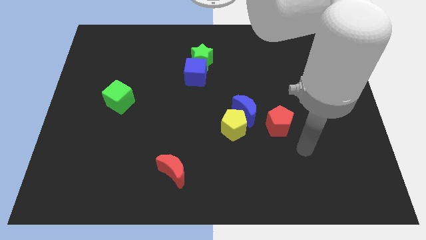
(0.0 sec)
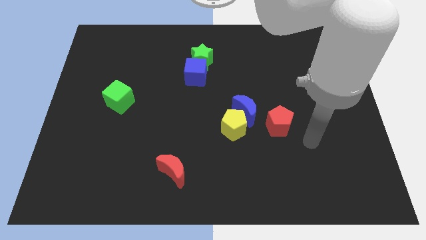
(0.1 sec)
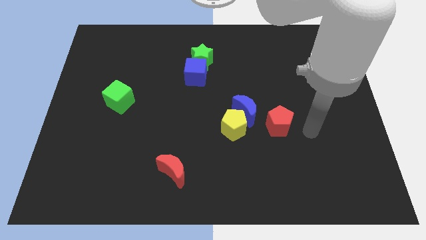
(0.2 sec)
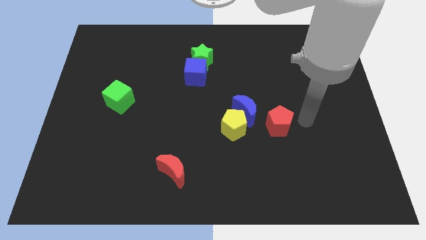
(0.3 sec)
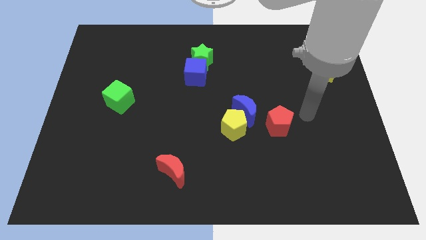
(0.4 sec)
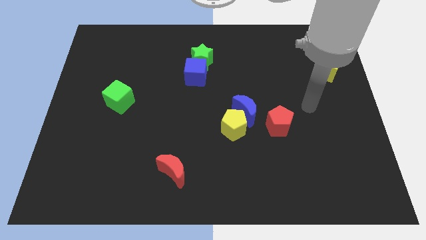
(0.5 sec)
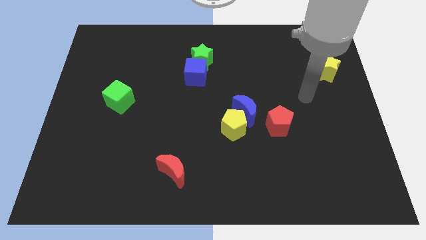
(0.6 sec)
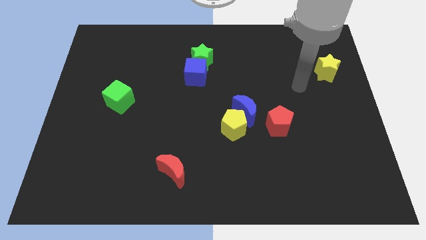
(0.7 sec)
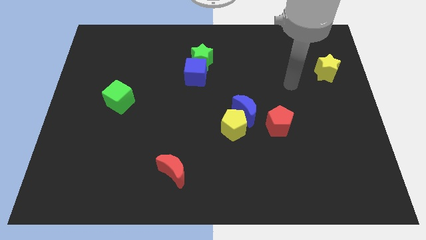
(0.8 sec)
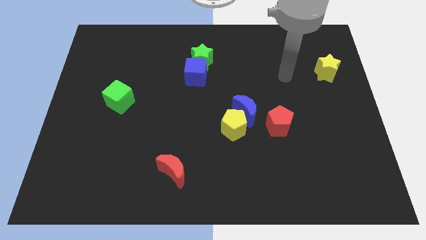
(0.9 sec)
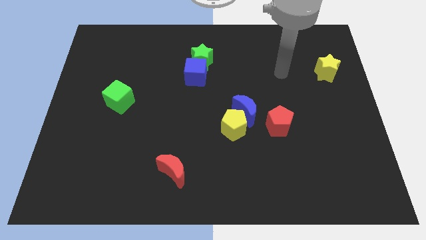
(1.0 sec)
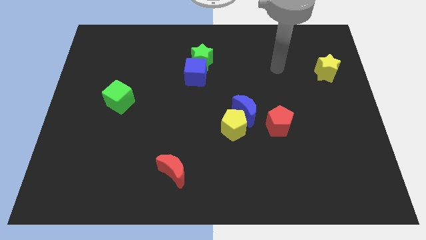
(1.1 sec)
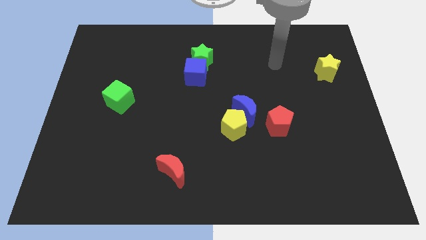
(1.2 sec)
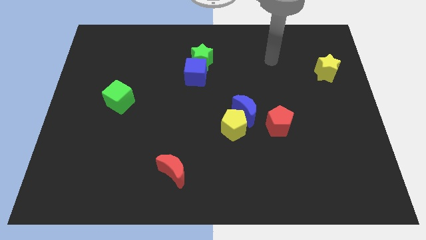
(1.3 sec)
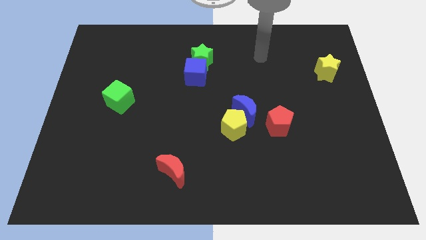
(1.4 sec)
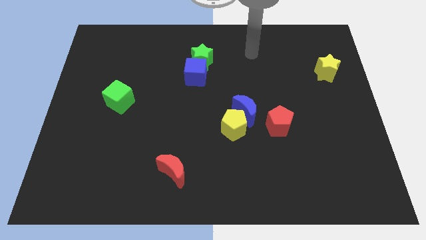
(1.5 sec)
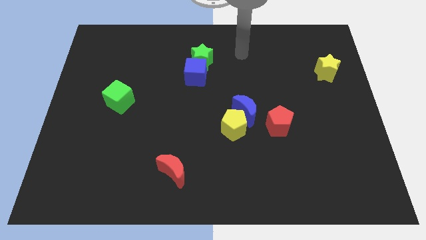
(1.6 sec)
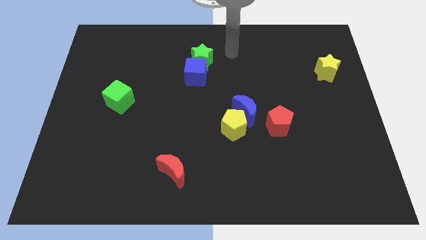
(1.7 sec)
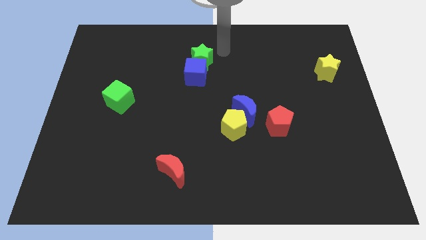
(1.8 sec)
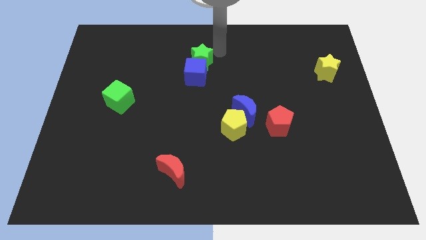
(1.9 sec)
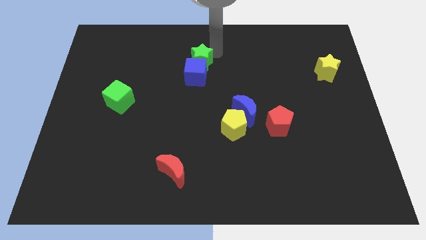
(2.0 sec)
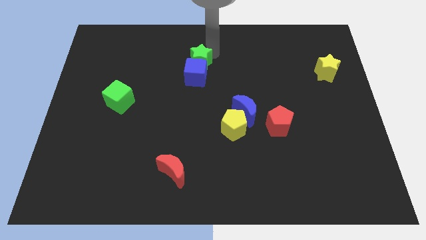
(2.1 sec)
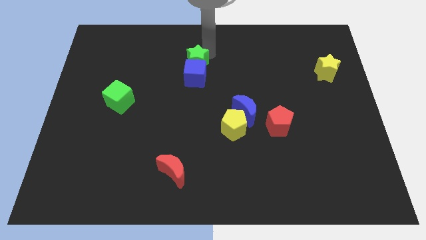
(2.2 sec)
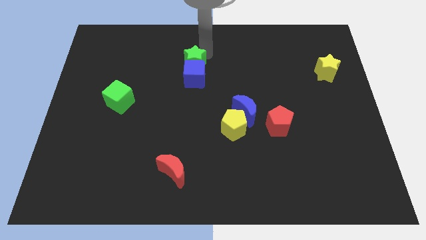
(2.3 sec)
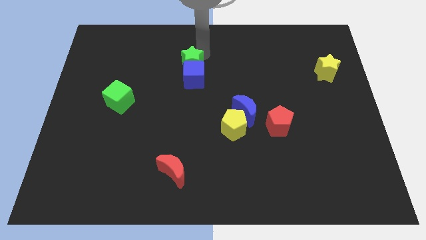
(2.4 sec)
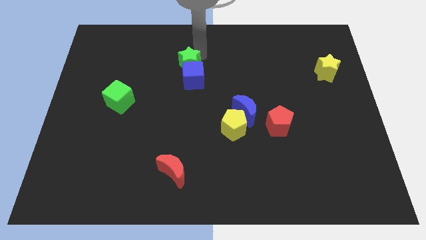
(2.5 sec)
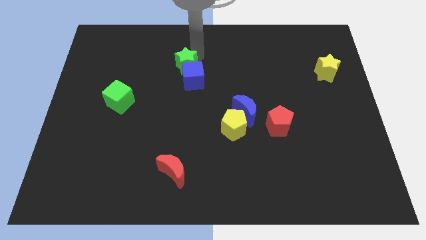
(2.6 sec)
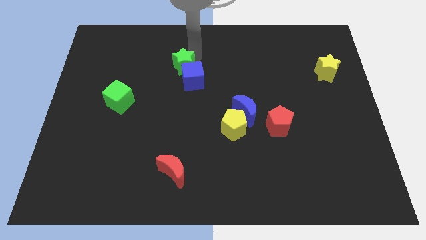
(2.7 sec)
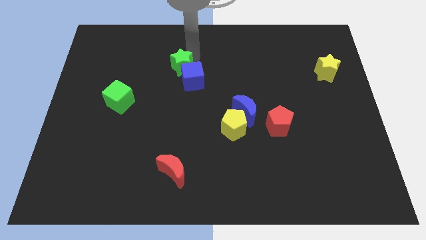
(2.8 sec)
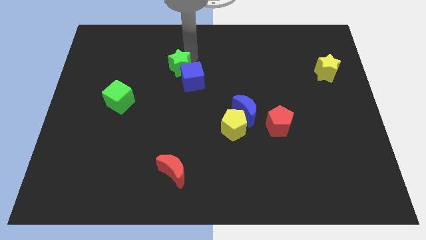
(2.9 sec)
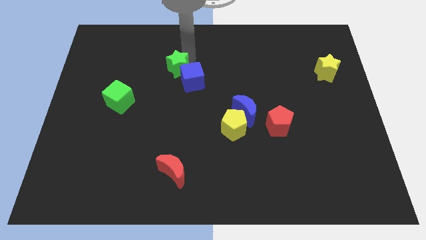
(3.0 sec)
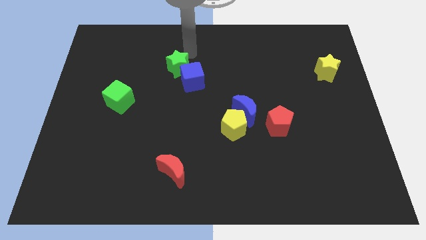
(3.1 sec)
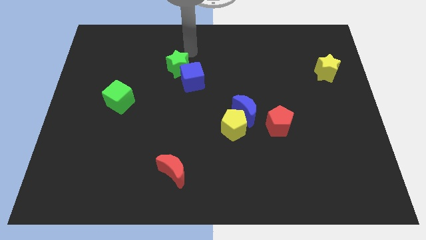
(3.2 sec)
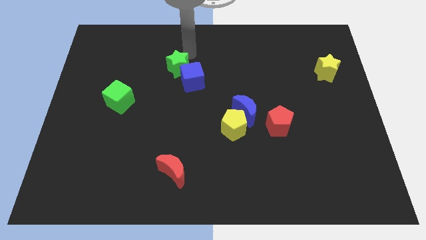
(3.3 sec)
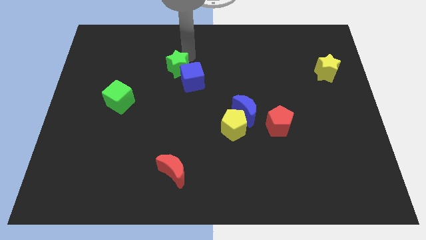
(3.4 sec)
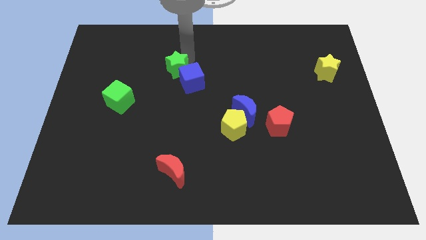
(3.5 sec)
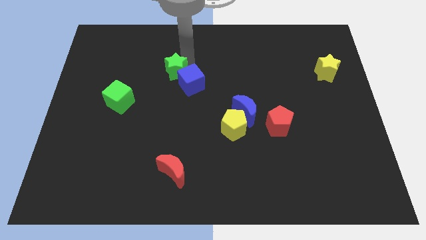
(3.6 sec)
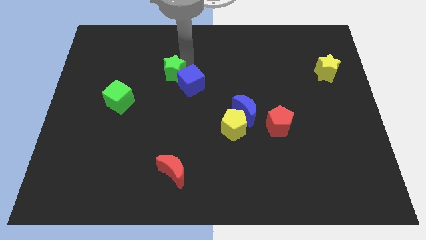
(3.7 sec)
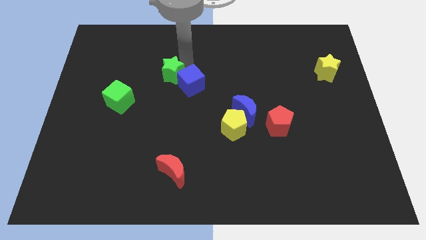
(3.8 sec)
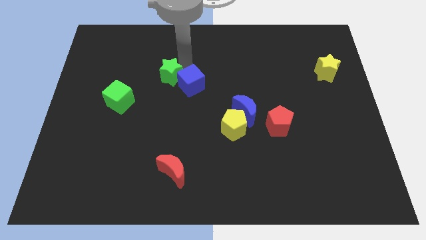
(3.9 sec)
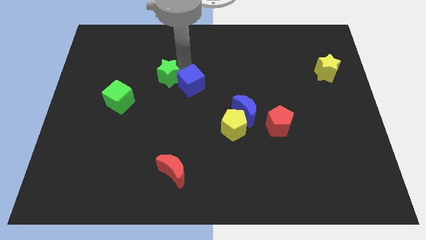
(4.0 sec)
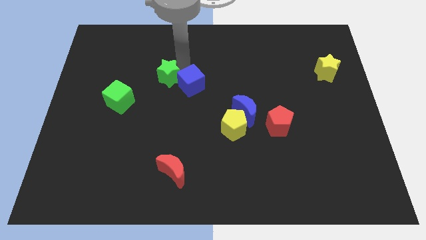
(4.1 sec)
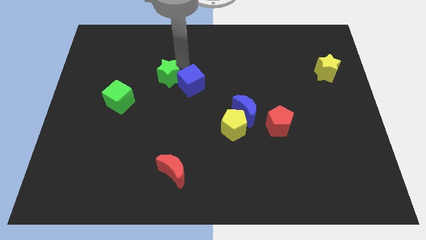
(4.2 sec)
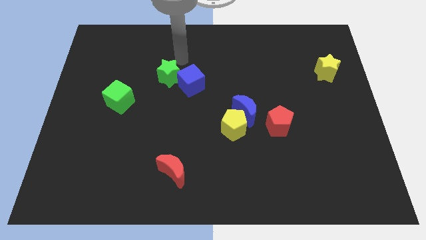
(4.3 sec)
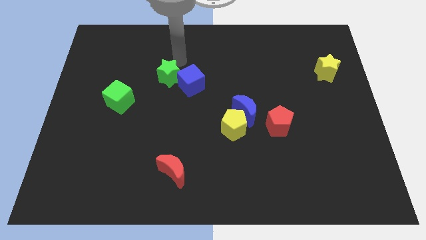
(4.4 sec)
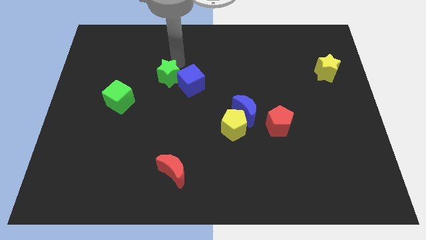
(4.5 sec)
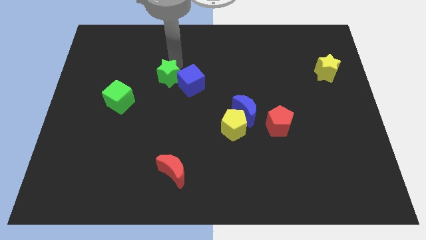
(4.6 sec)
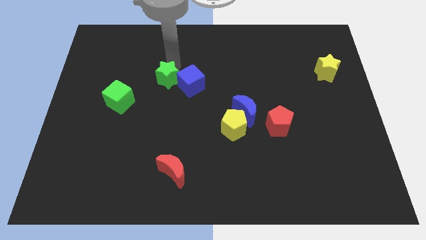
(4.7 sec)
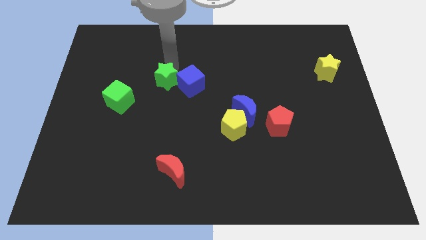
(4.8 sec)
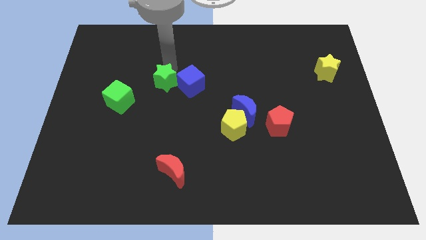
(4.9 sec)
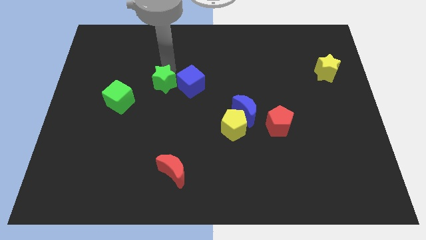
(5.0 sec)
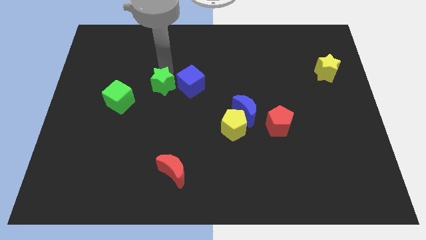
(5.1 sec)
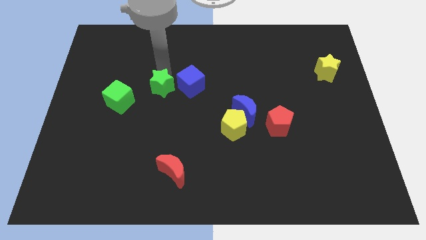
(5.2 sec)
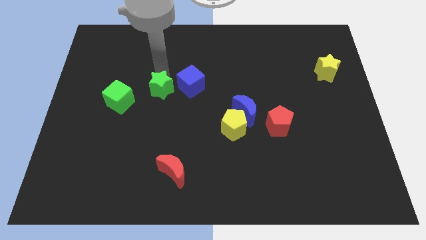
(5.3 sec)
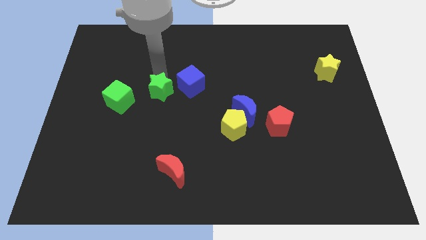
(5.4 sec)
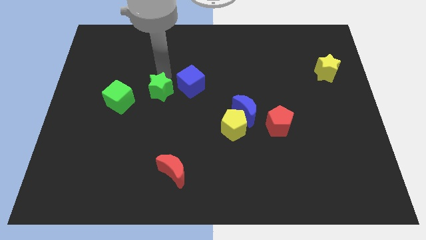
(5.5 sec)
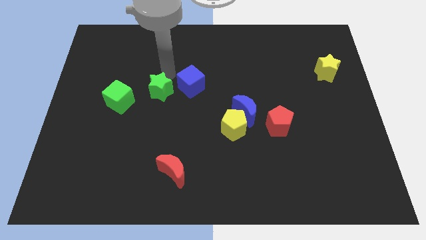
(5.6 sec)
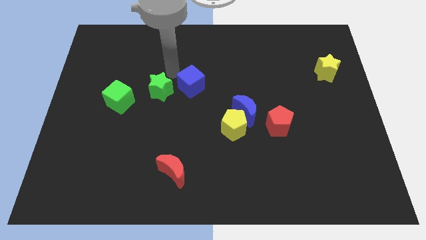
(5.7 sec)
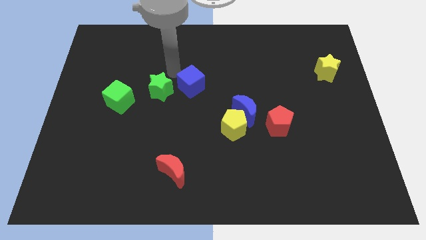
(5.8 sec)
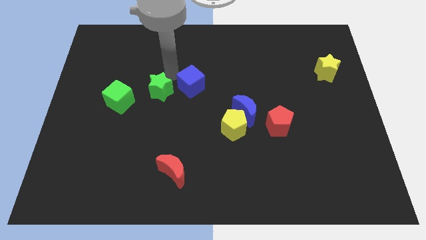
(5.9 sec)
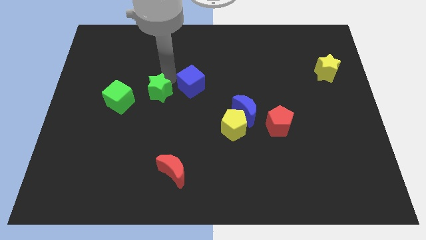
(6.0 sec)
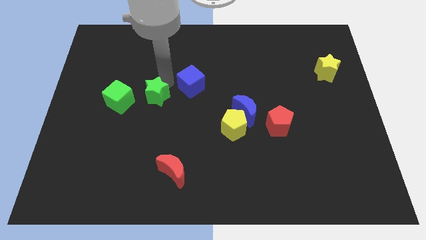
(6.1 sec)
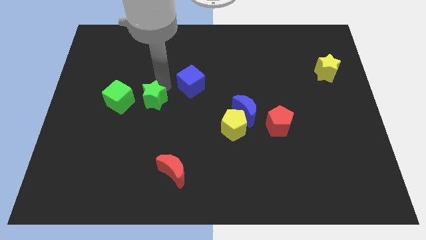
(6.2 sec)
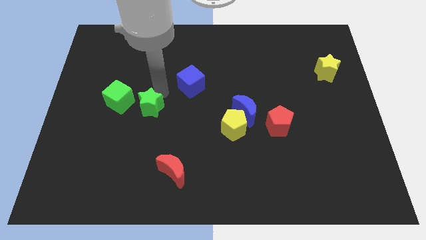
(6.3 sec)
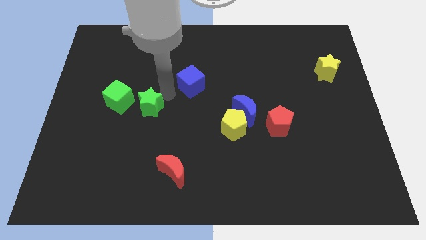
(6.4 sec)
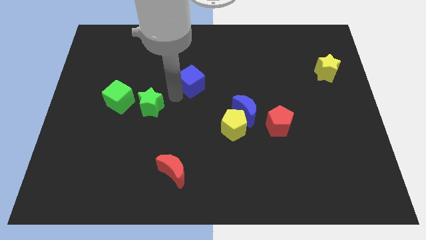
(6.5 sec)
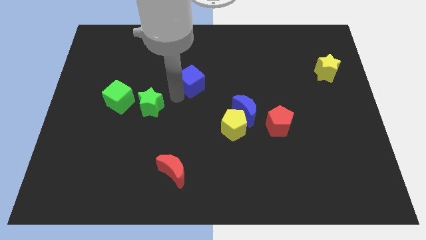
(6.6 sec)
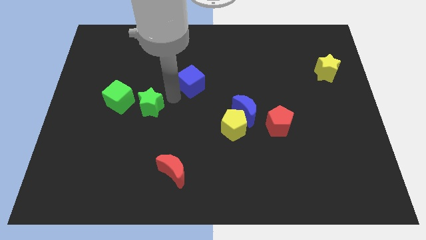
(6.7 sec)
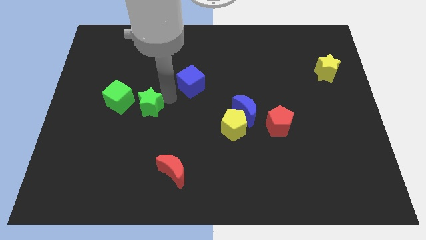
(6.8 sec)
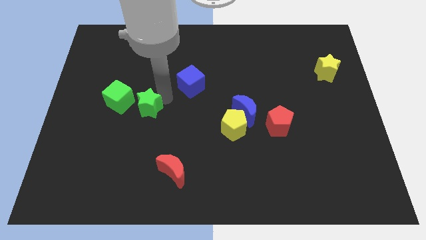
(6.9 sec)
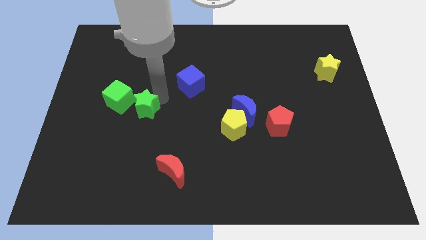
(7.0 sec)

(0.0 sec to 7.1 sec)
move the green star diagonally down and to the left

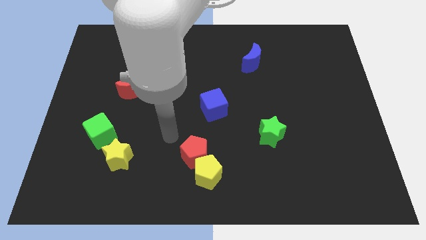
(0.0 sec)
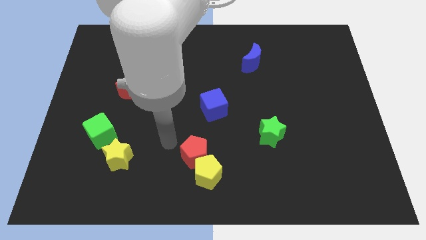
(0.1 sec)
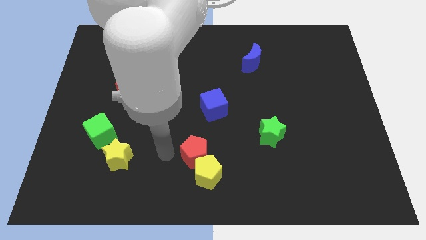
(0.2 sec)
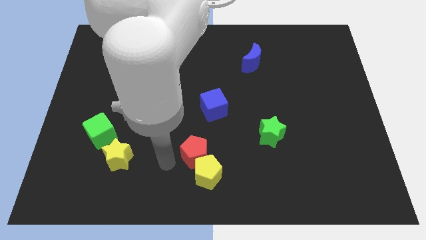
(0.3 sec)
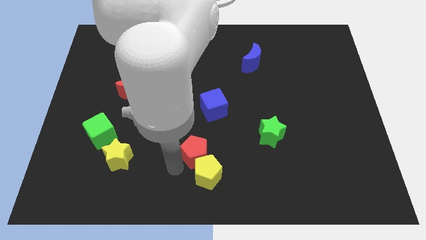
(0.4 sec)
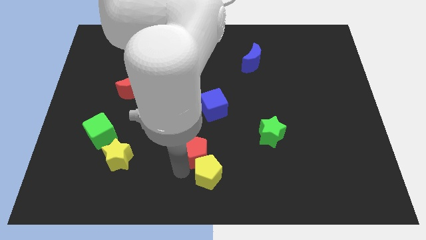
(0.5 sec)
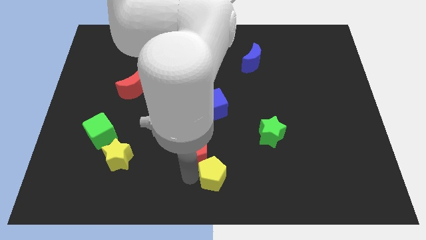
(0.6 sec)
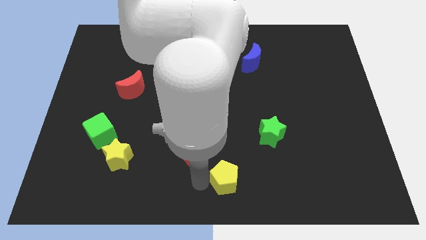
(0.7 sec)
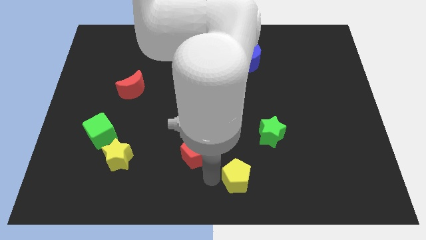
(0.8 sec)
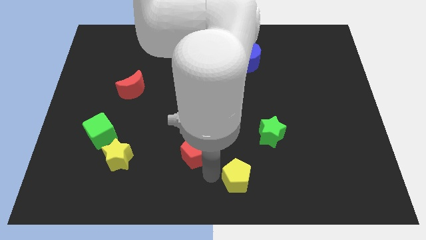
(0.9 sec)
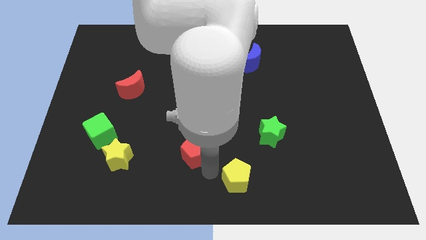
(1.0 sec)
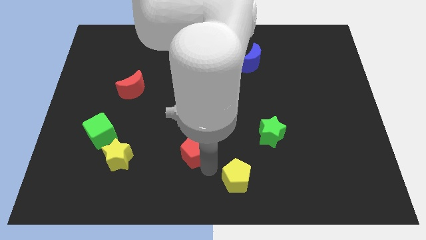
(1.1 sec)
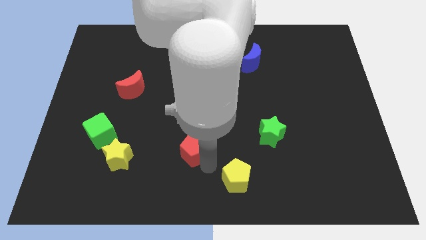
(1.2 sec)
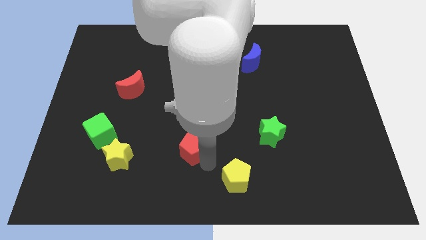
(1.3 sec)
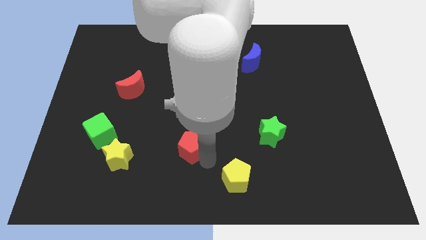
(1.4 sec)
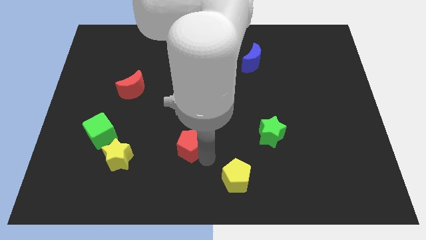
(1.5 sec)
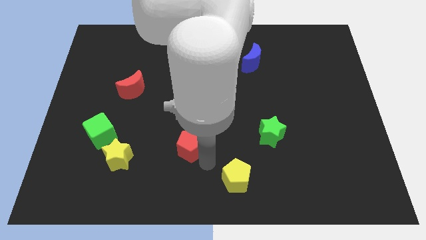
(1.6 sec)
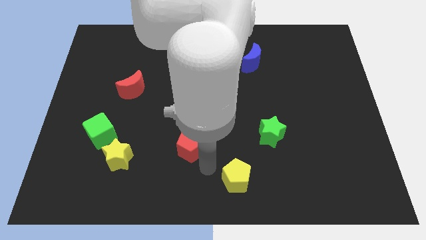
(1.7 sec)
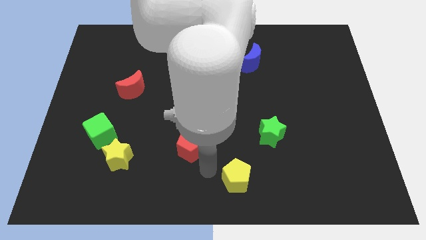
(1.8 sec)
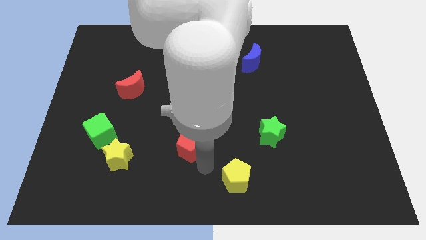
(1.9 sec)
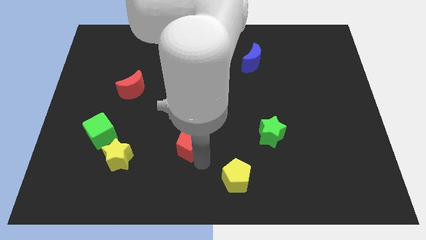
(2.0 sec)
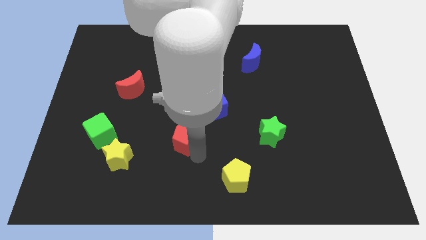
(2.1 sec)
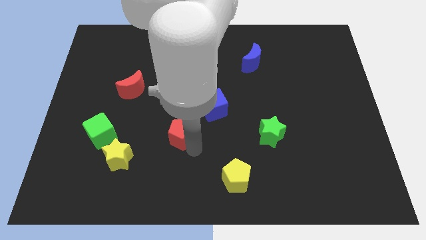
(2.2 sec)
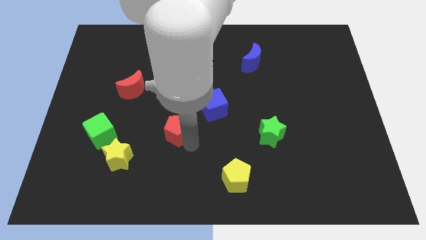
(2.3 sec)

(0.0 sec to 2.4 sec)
move the red pentagon somewhat up and to the left diagonally
